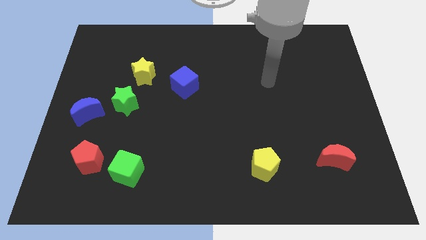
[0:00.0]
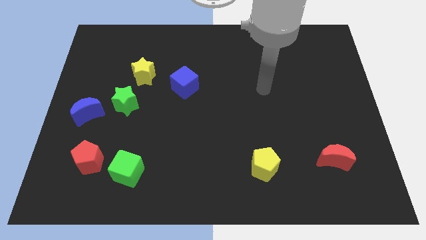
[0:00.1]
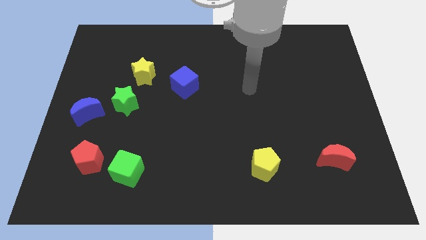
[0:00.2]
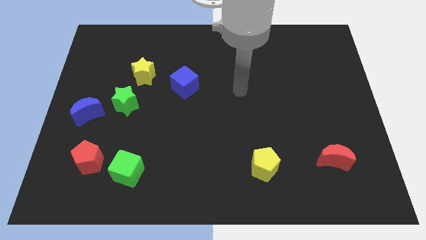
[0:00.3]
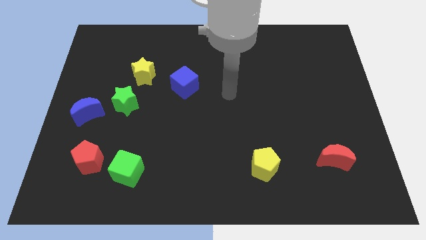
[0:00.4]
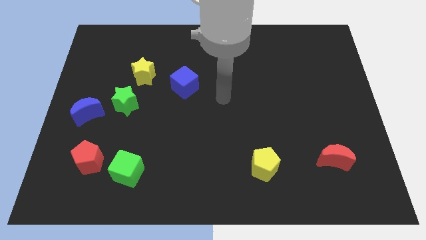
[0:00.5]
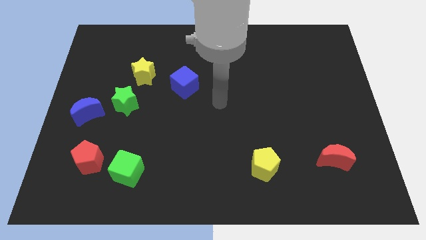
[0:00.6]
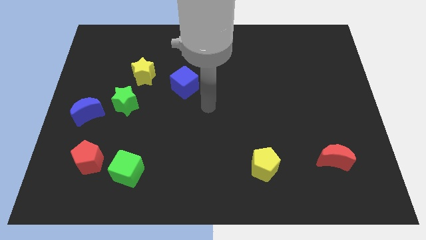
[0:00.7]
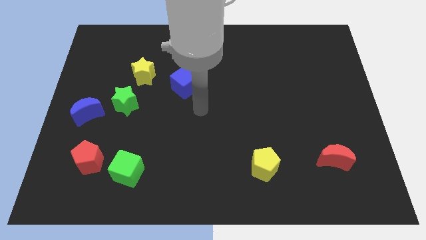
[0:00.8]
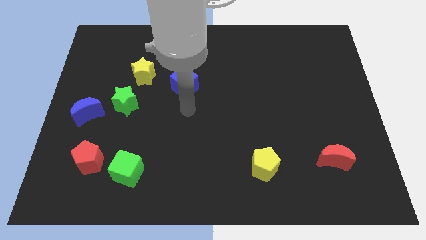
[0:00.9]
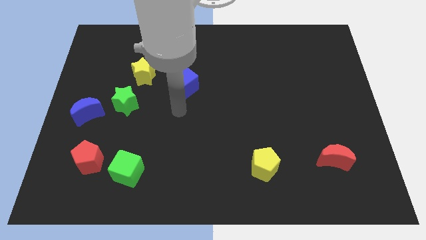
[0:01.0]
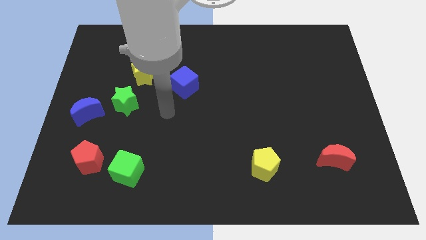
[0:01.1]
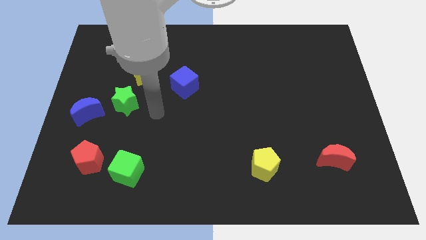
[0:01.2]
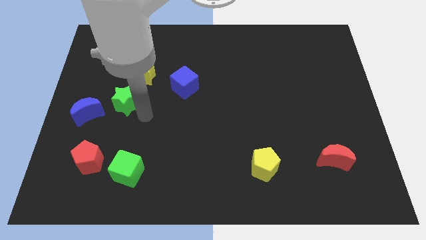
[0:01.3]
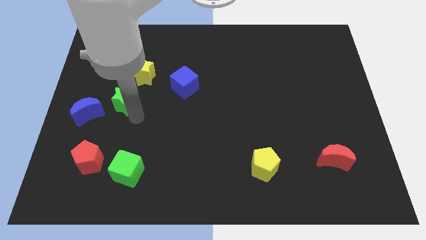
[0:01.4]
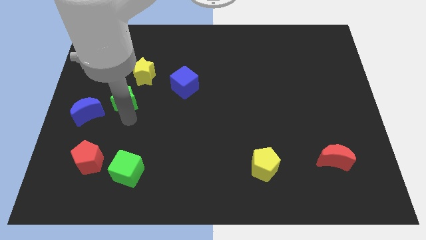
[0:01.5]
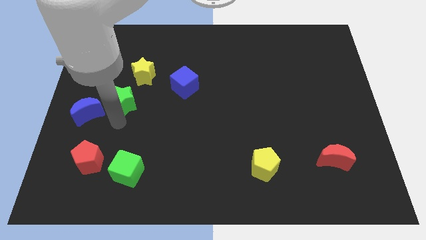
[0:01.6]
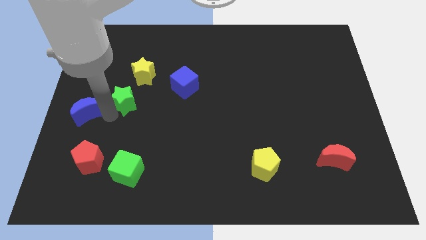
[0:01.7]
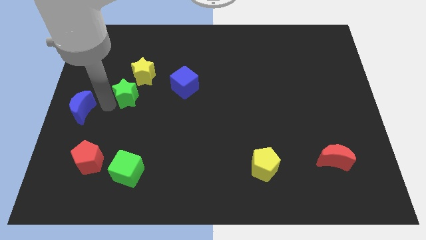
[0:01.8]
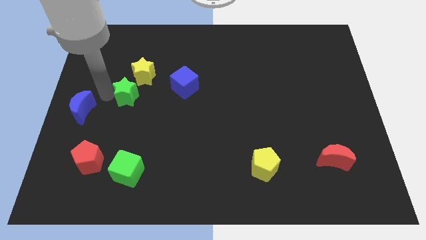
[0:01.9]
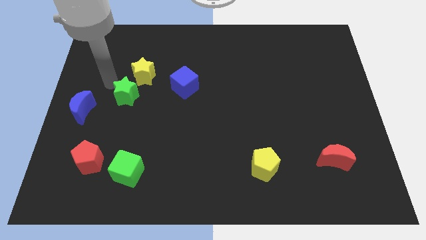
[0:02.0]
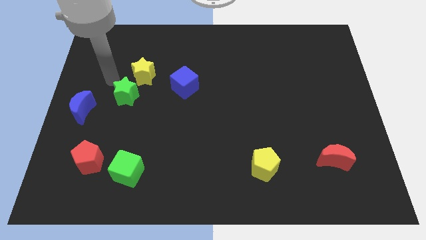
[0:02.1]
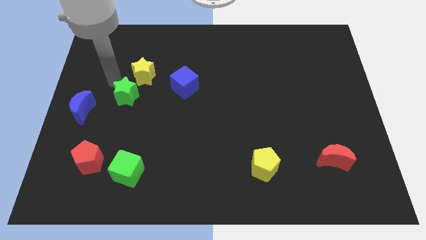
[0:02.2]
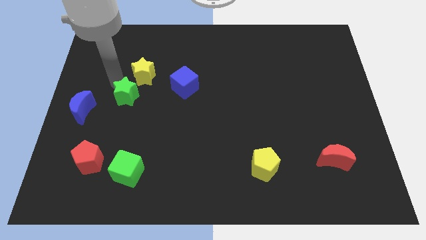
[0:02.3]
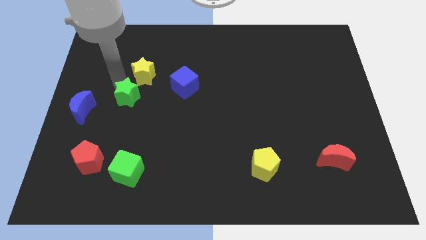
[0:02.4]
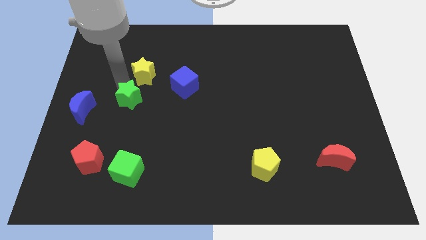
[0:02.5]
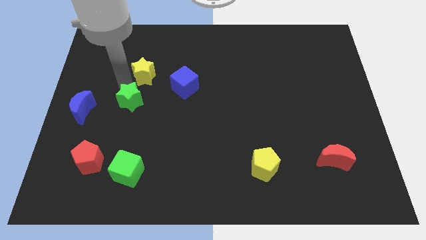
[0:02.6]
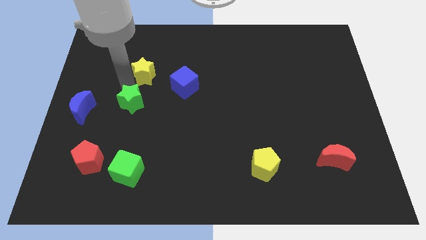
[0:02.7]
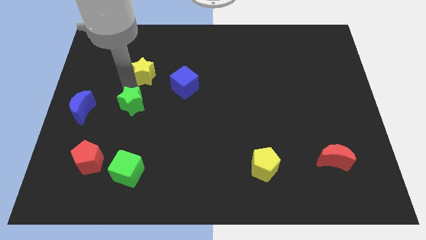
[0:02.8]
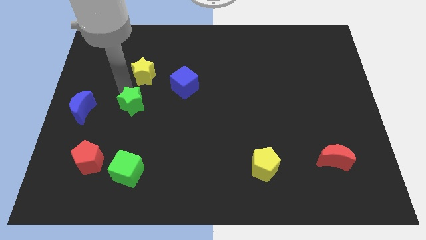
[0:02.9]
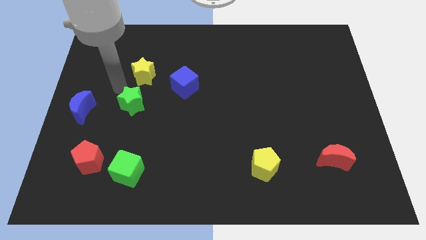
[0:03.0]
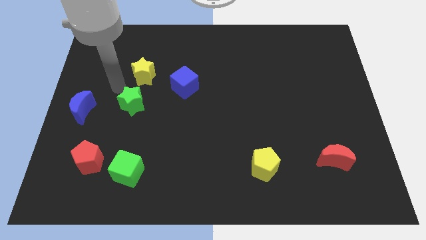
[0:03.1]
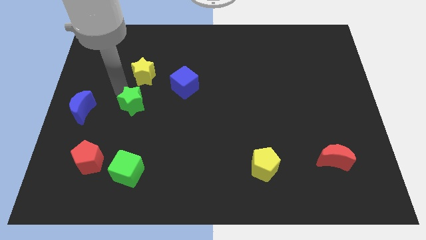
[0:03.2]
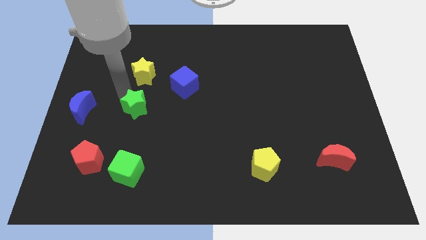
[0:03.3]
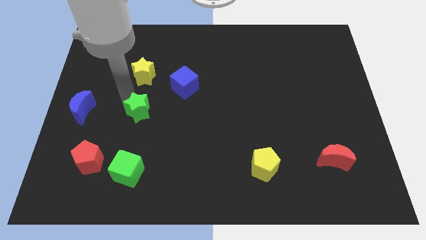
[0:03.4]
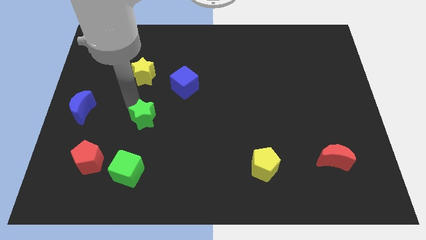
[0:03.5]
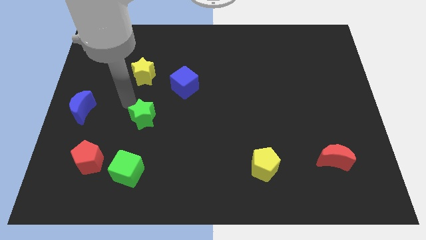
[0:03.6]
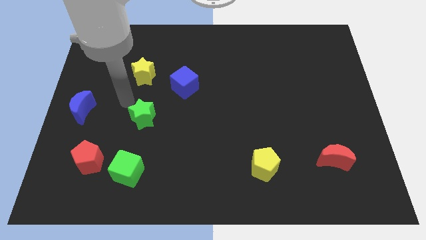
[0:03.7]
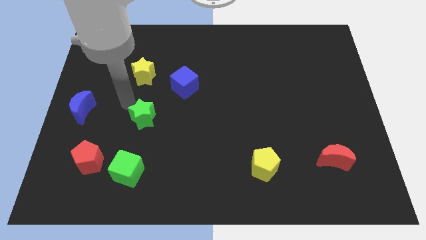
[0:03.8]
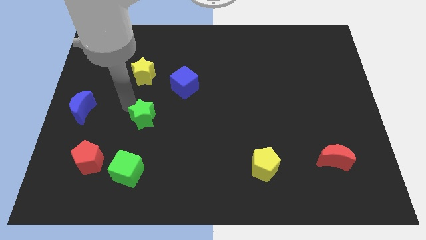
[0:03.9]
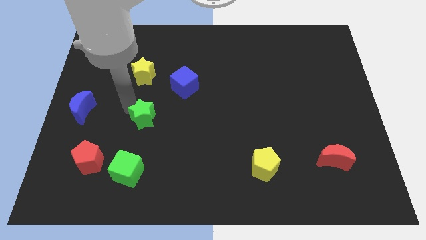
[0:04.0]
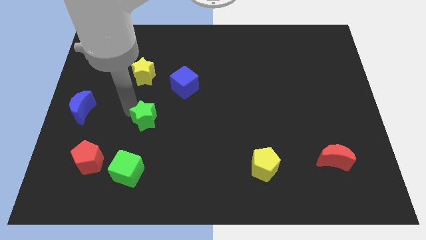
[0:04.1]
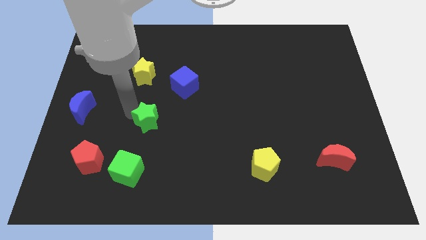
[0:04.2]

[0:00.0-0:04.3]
move the green star diagonally down and right a little

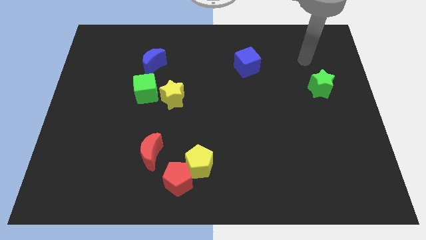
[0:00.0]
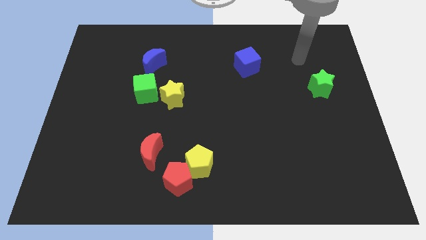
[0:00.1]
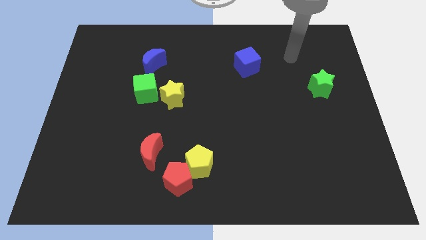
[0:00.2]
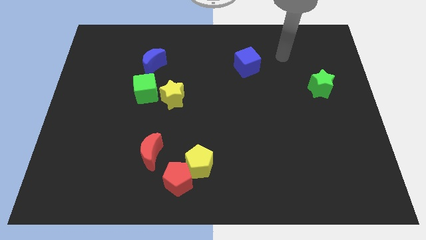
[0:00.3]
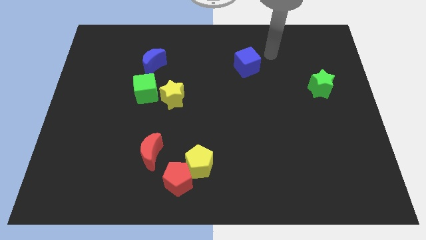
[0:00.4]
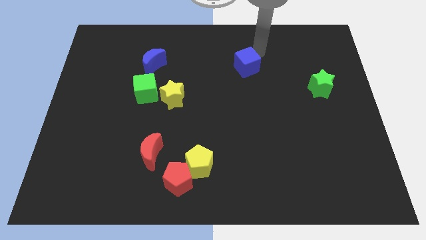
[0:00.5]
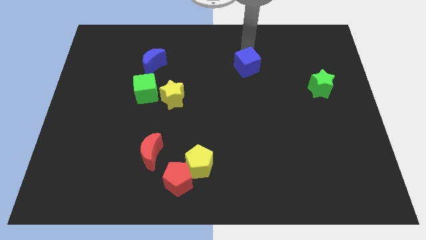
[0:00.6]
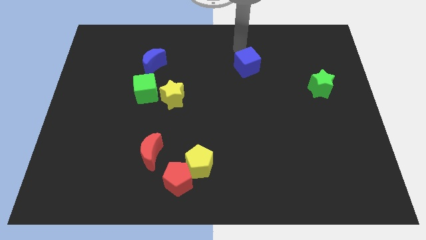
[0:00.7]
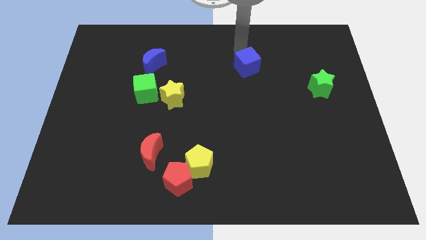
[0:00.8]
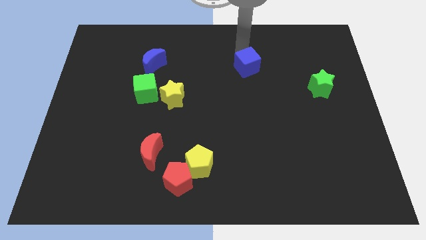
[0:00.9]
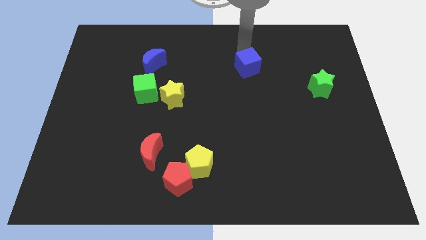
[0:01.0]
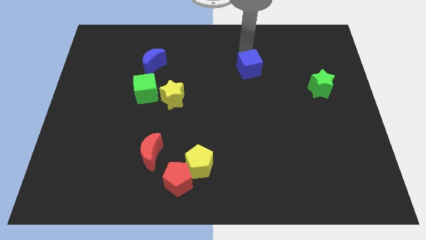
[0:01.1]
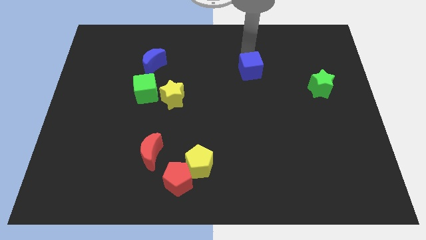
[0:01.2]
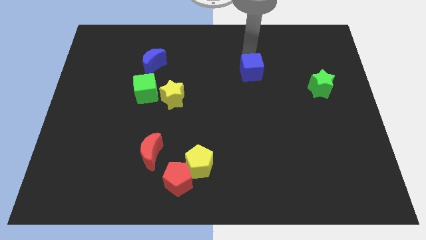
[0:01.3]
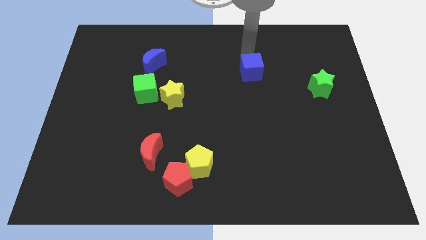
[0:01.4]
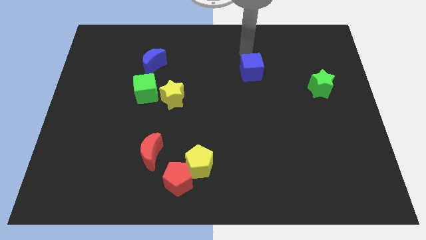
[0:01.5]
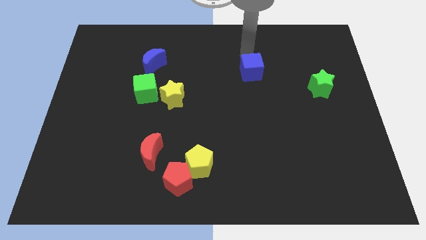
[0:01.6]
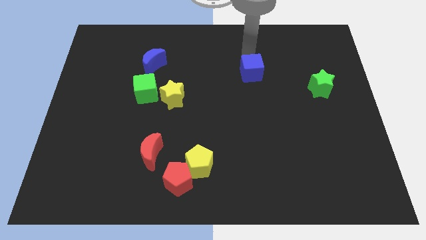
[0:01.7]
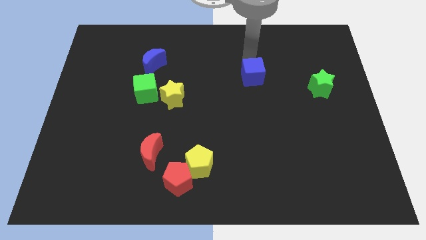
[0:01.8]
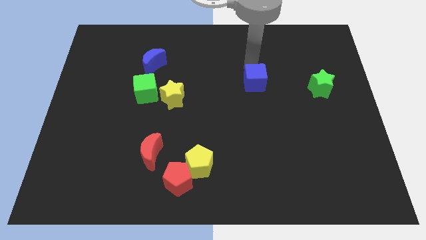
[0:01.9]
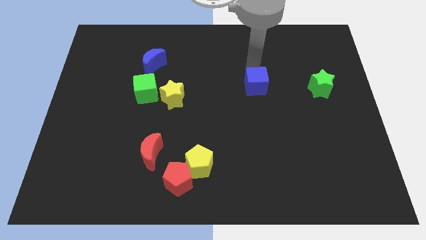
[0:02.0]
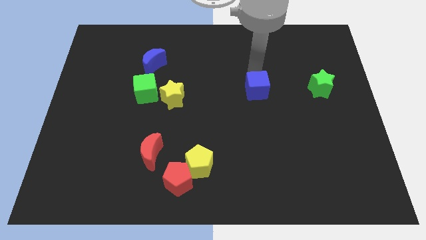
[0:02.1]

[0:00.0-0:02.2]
slide the blue cube slightly down

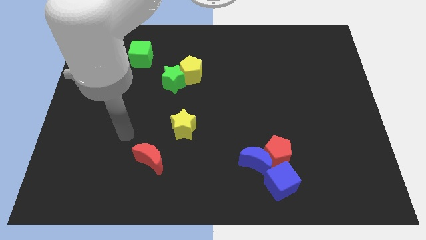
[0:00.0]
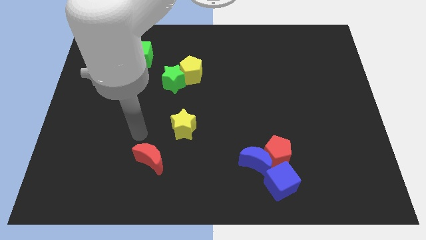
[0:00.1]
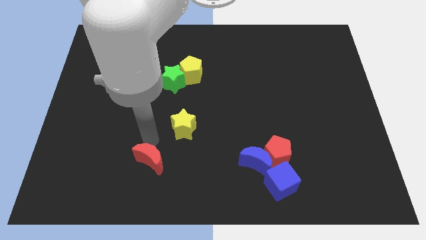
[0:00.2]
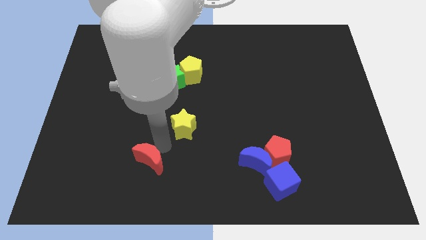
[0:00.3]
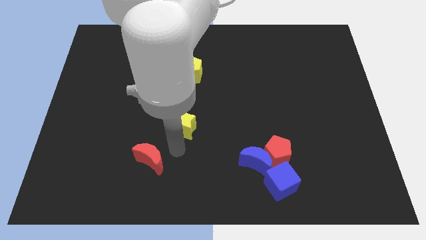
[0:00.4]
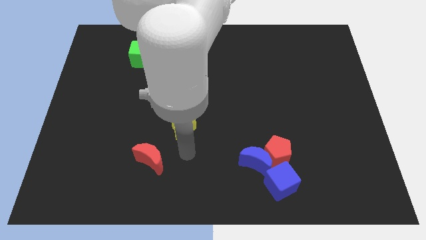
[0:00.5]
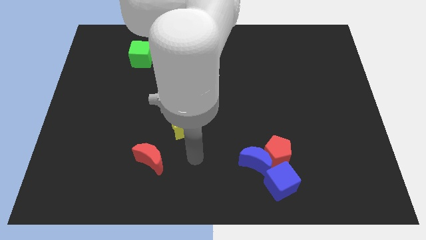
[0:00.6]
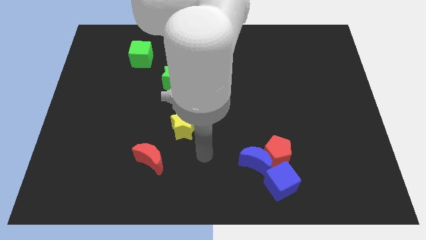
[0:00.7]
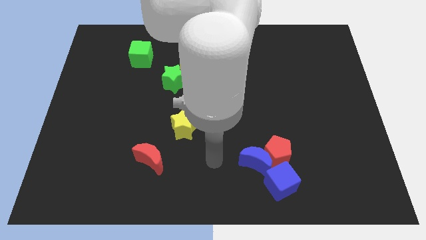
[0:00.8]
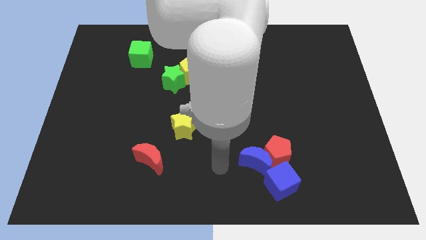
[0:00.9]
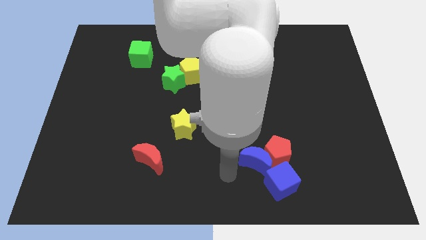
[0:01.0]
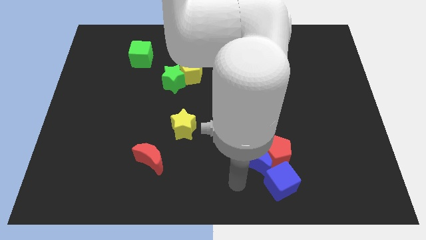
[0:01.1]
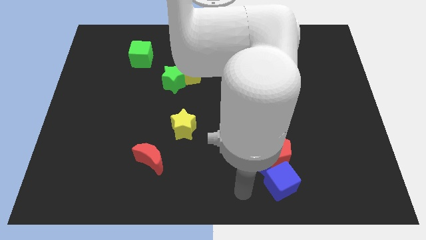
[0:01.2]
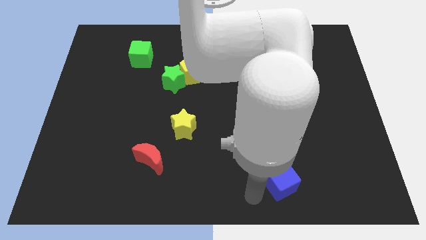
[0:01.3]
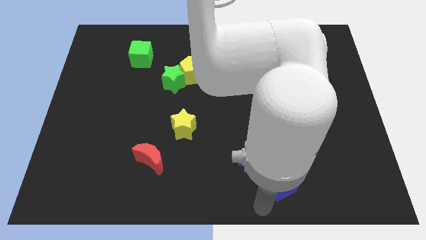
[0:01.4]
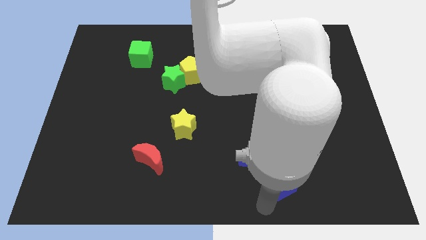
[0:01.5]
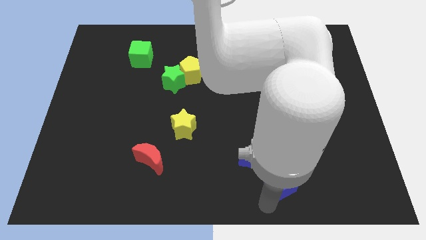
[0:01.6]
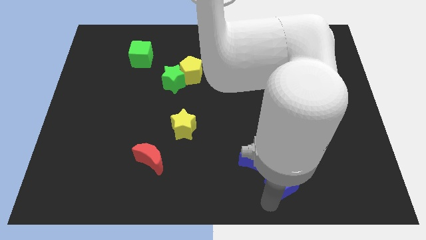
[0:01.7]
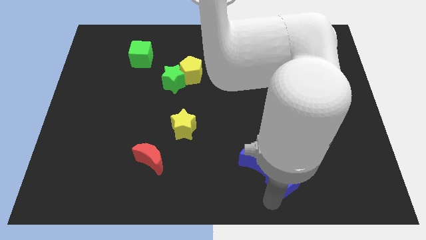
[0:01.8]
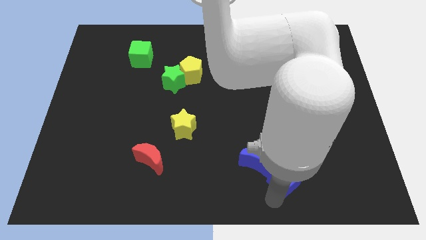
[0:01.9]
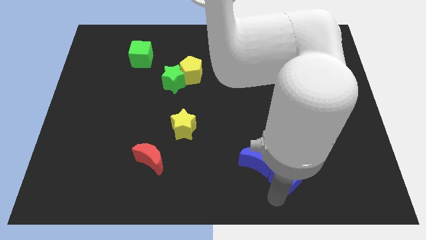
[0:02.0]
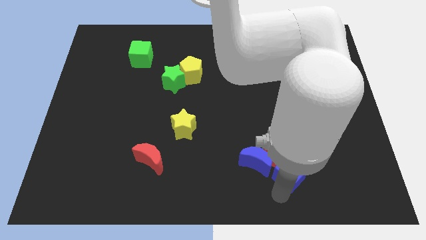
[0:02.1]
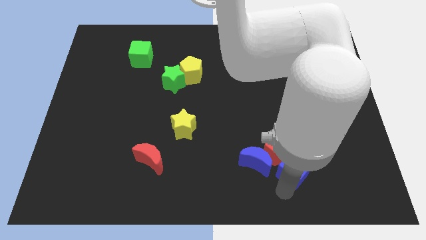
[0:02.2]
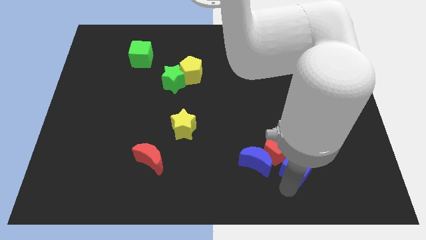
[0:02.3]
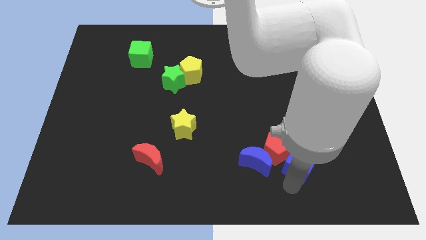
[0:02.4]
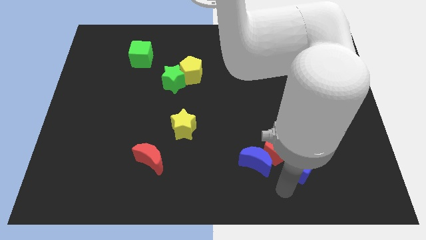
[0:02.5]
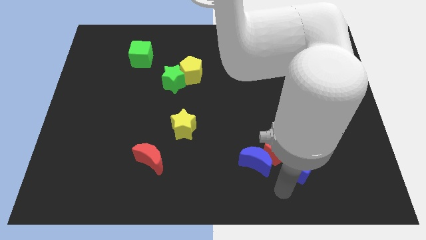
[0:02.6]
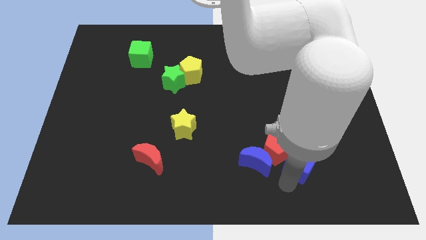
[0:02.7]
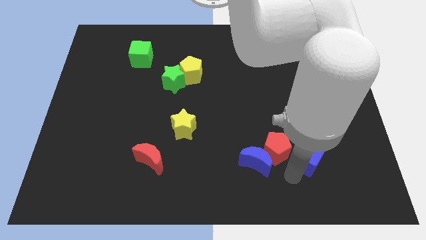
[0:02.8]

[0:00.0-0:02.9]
move the blue cube diagonally upwards and to the right a little bit
